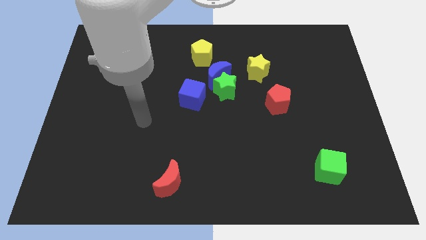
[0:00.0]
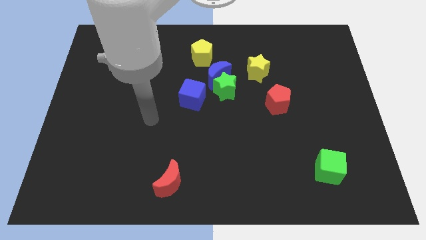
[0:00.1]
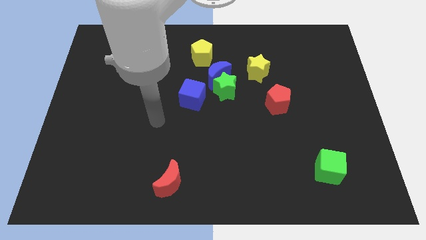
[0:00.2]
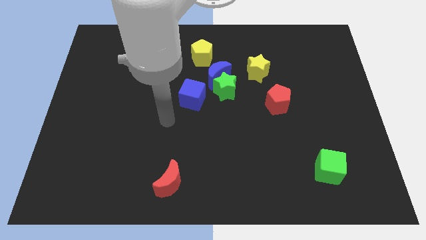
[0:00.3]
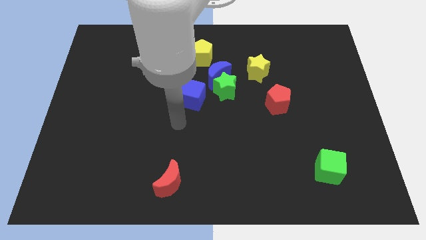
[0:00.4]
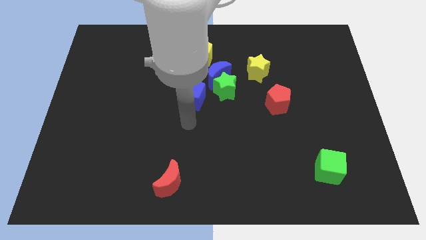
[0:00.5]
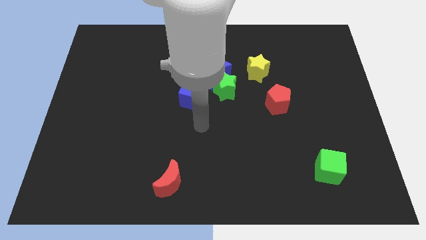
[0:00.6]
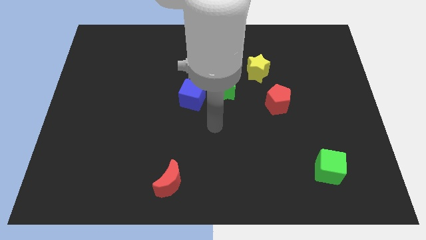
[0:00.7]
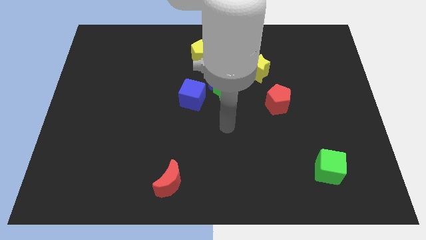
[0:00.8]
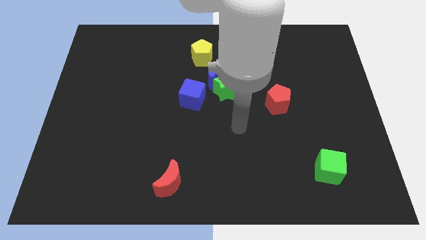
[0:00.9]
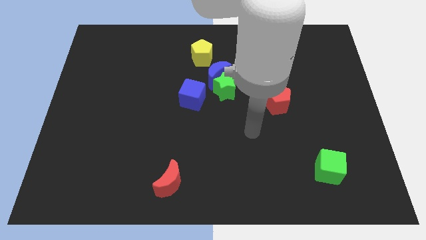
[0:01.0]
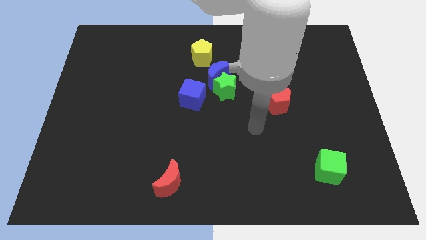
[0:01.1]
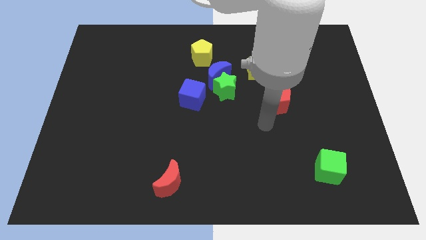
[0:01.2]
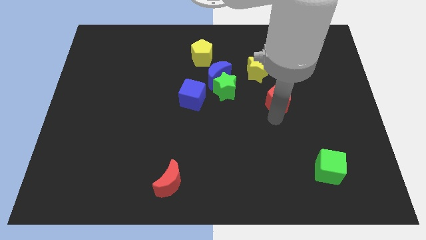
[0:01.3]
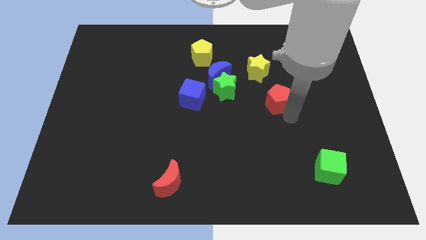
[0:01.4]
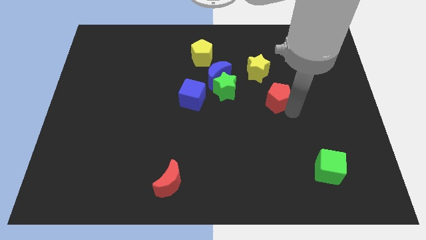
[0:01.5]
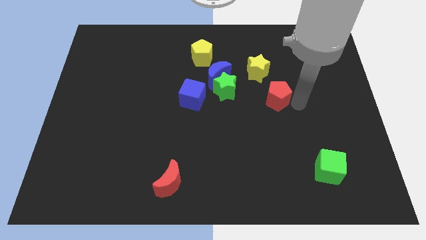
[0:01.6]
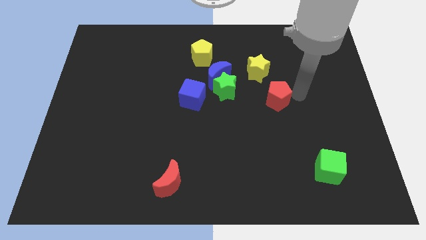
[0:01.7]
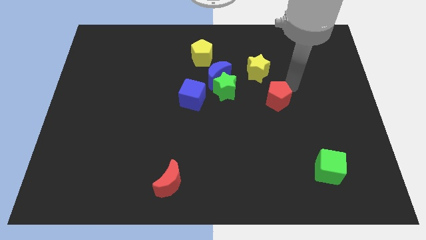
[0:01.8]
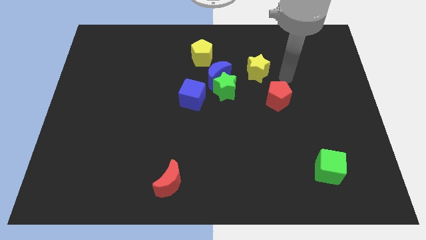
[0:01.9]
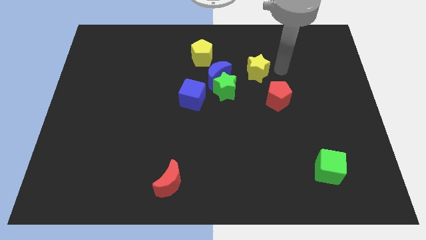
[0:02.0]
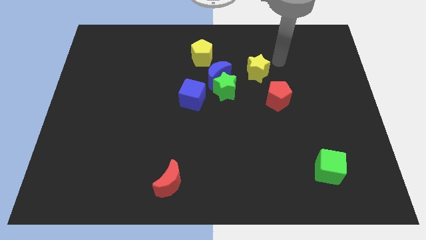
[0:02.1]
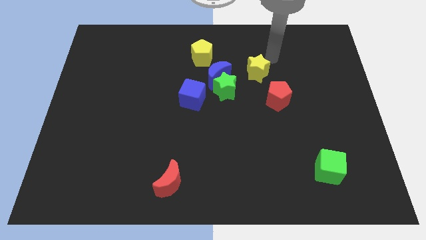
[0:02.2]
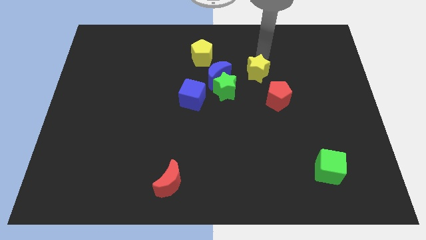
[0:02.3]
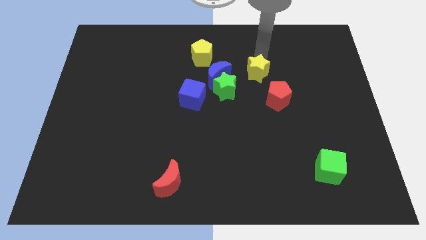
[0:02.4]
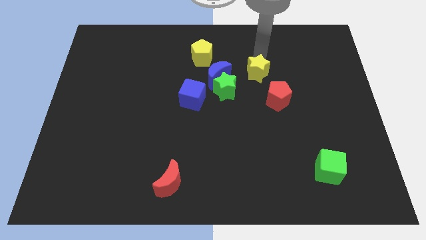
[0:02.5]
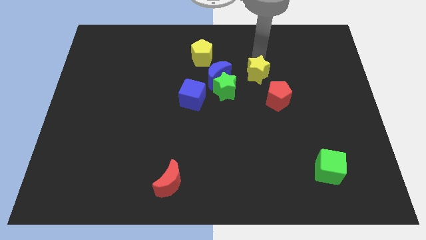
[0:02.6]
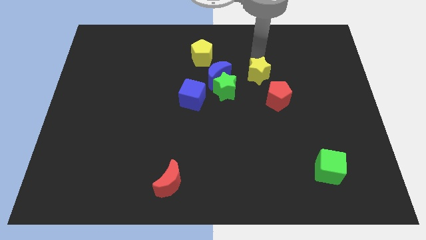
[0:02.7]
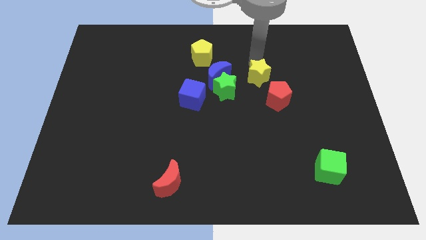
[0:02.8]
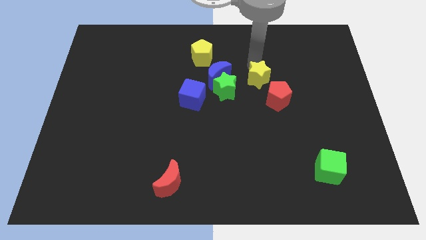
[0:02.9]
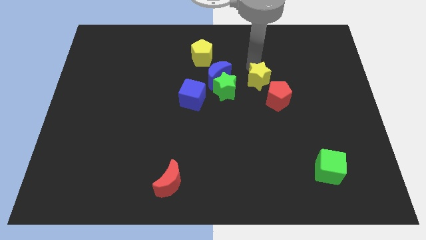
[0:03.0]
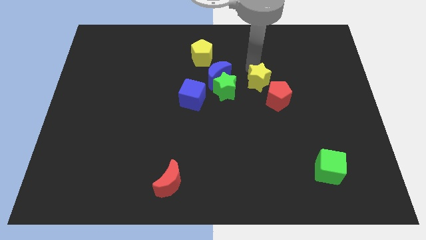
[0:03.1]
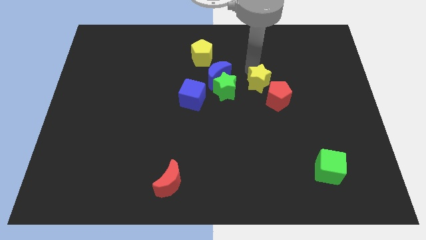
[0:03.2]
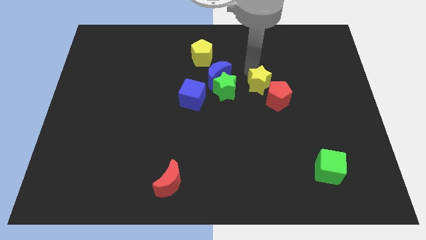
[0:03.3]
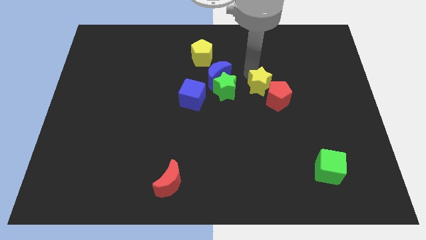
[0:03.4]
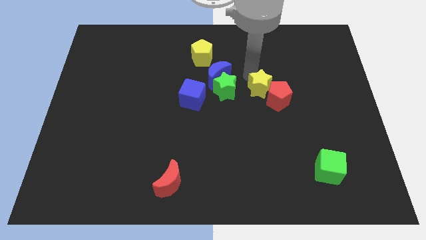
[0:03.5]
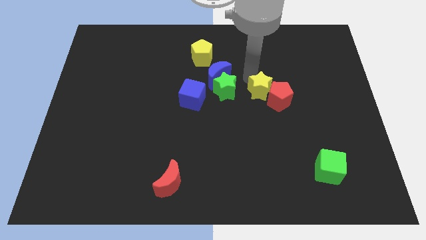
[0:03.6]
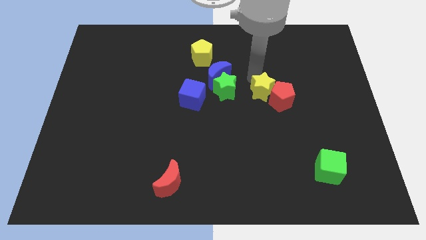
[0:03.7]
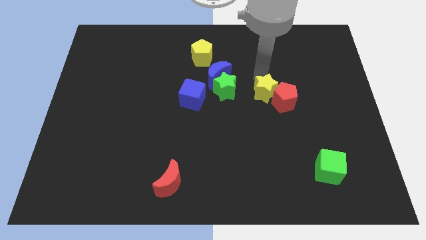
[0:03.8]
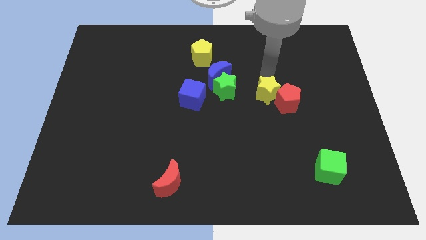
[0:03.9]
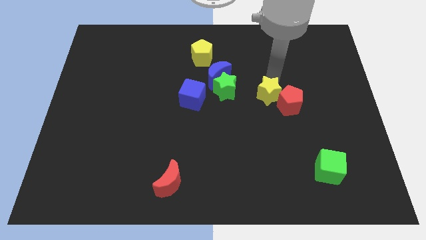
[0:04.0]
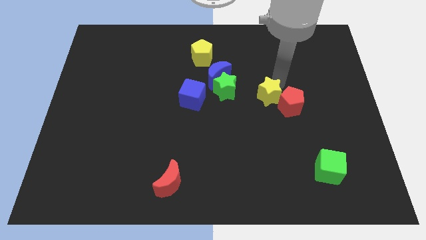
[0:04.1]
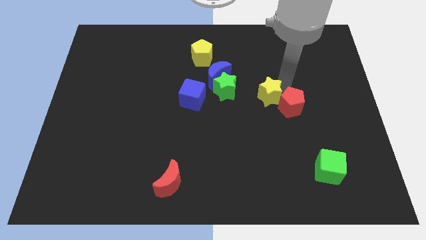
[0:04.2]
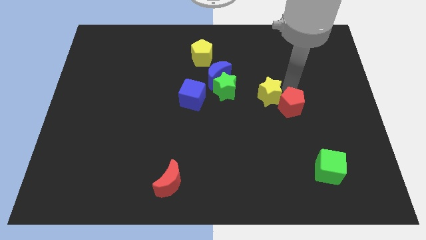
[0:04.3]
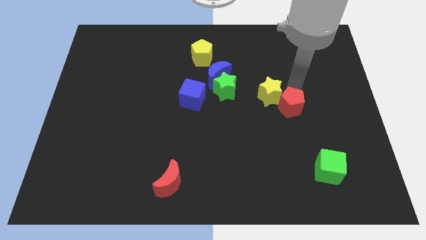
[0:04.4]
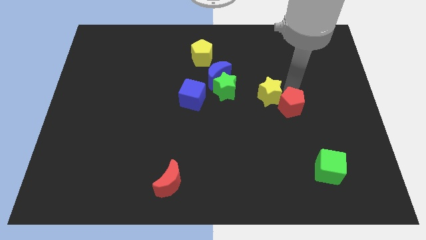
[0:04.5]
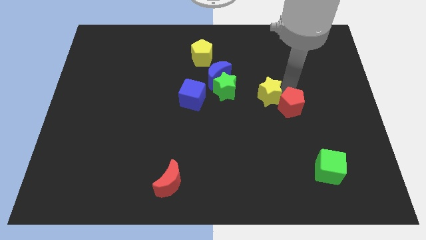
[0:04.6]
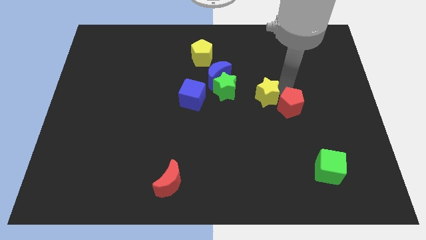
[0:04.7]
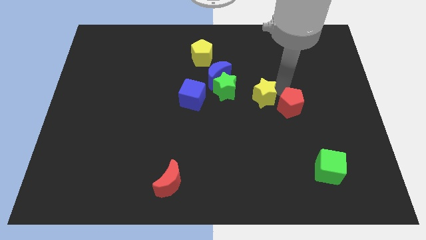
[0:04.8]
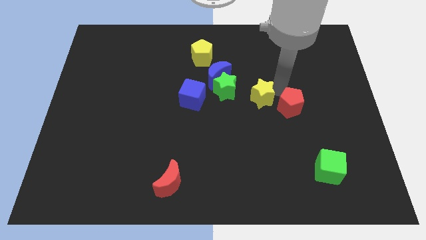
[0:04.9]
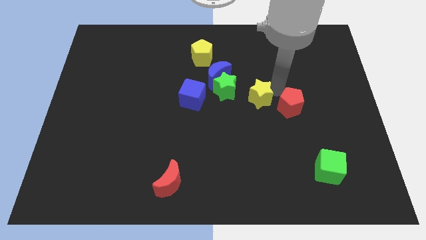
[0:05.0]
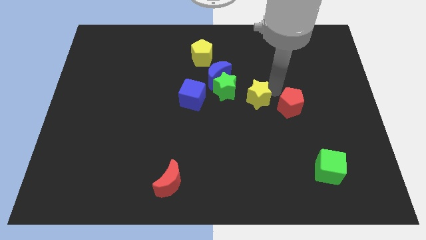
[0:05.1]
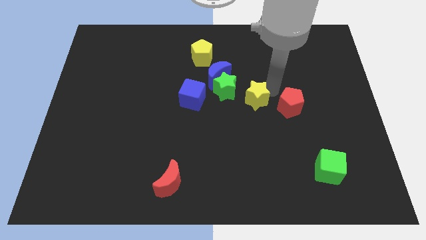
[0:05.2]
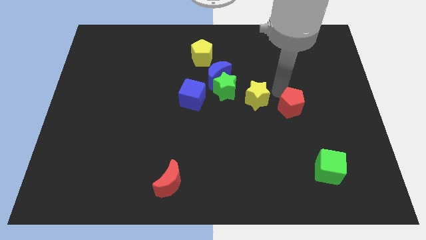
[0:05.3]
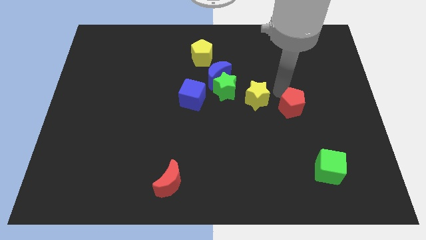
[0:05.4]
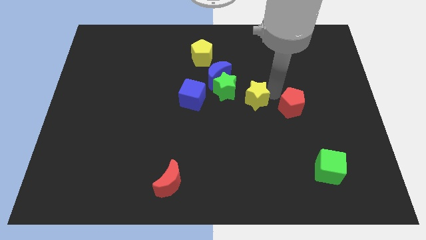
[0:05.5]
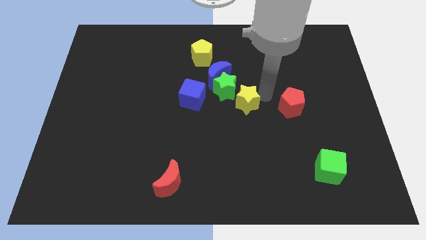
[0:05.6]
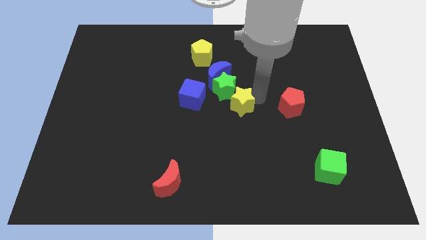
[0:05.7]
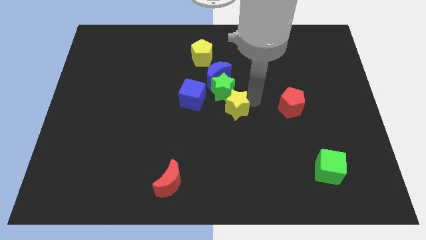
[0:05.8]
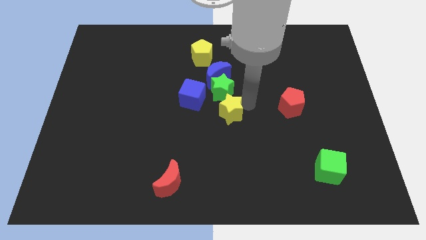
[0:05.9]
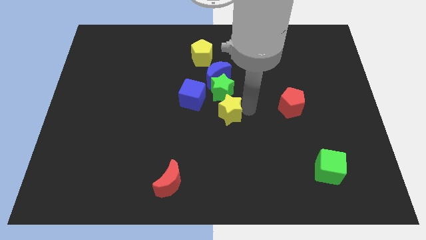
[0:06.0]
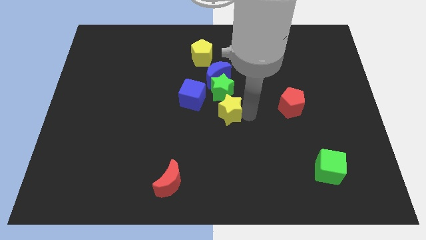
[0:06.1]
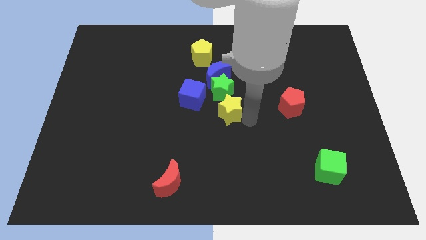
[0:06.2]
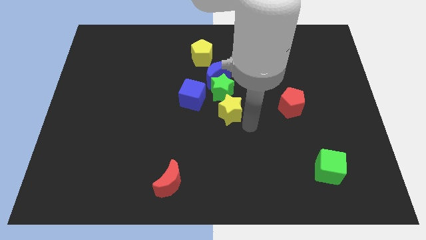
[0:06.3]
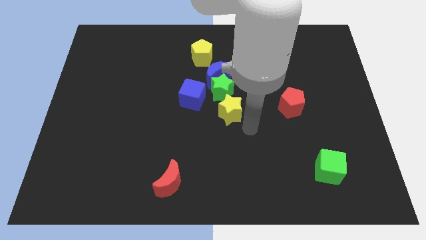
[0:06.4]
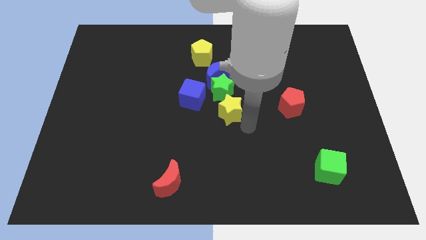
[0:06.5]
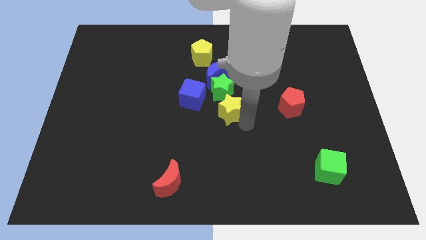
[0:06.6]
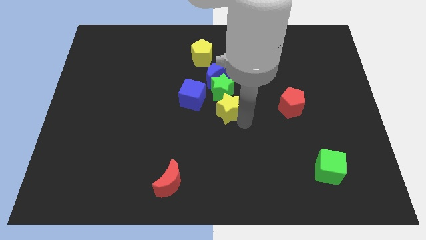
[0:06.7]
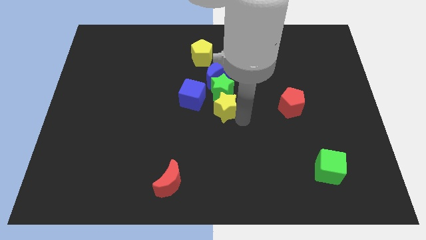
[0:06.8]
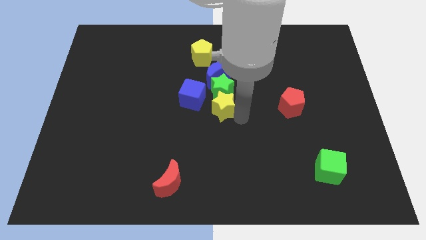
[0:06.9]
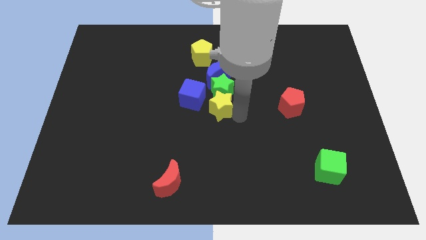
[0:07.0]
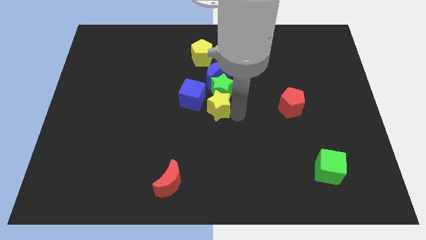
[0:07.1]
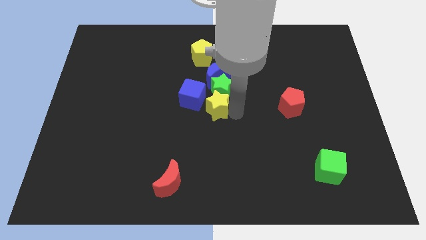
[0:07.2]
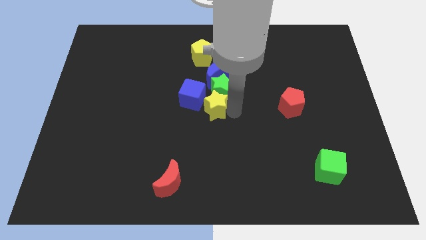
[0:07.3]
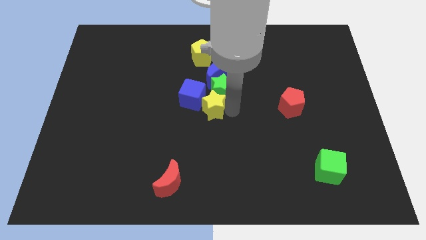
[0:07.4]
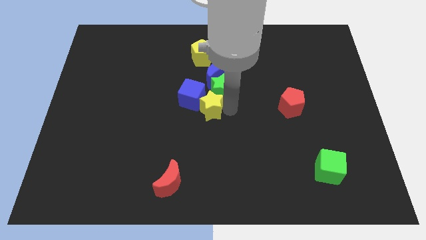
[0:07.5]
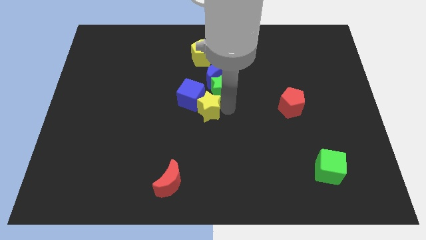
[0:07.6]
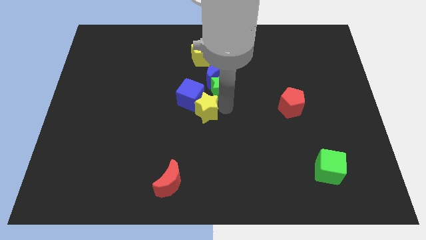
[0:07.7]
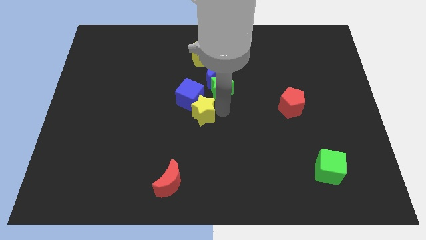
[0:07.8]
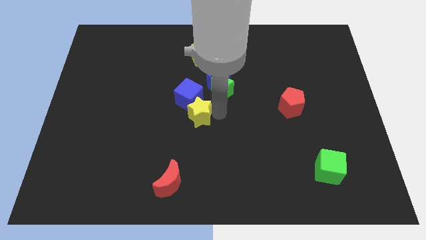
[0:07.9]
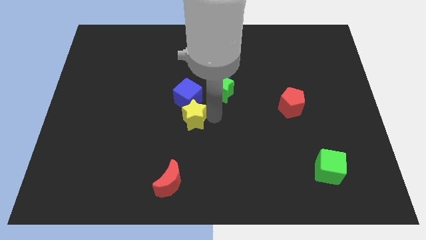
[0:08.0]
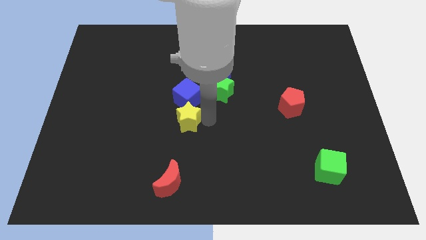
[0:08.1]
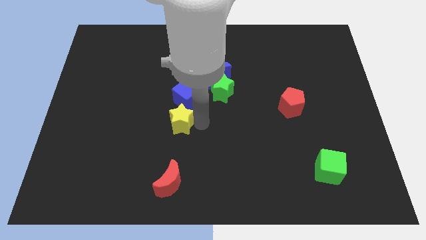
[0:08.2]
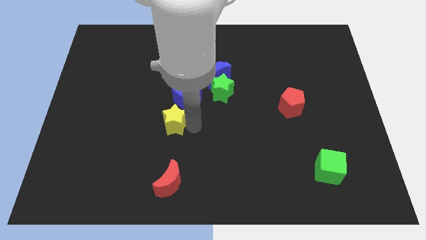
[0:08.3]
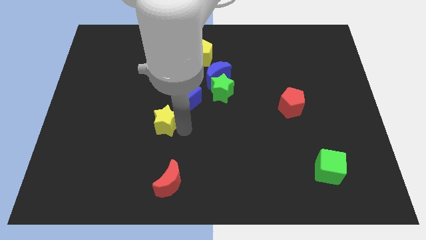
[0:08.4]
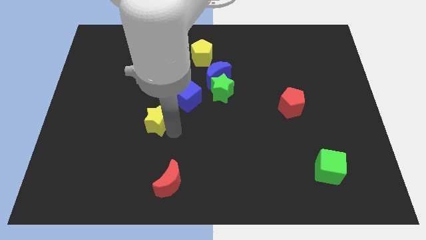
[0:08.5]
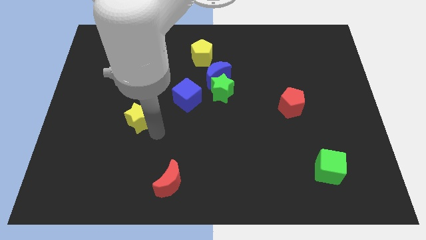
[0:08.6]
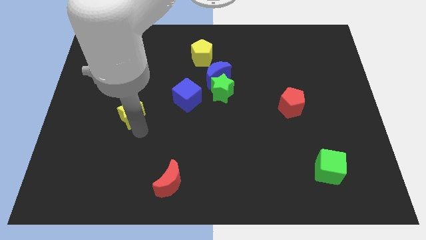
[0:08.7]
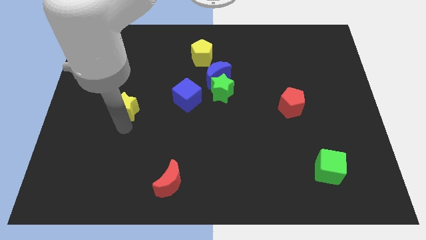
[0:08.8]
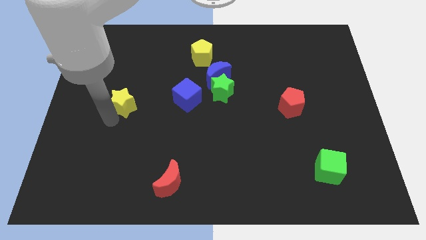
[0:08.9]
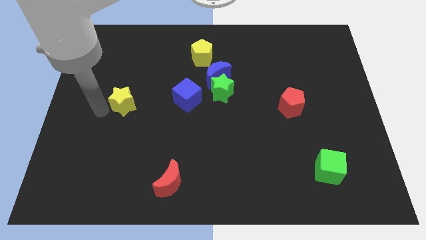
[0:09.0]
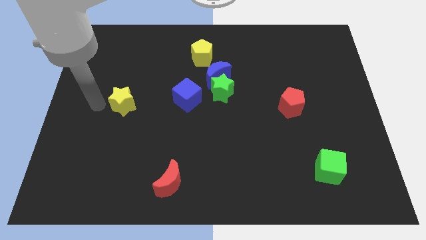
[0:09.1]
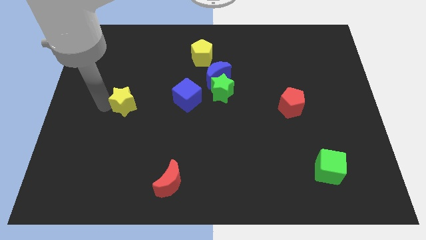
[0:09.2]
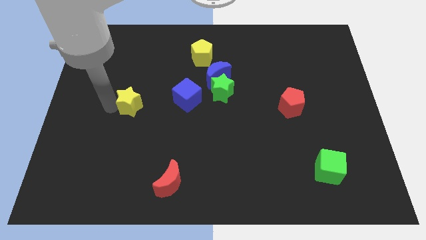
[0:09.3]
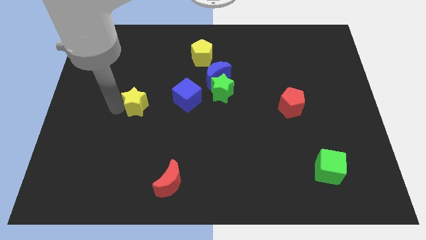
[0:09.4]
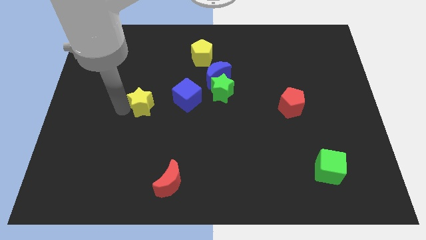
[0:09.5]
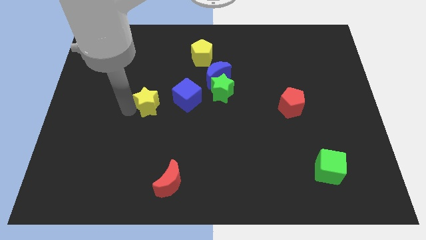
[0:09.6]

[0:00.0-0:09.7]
push the yellow star to the left slightly
